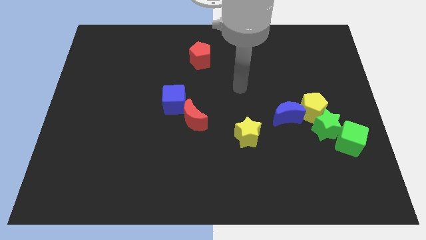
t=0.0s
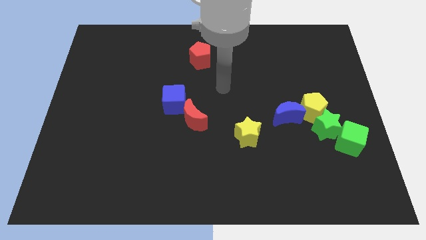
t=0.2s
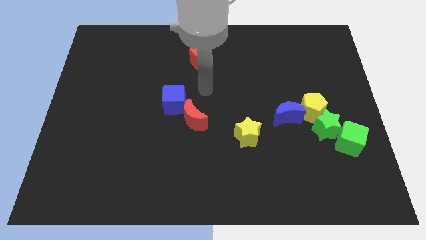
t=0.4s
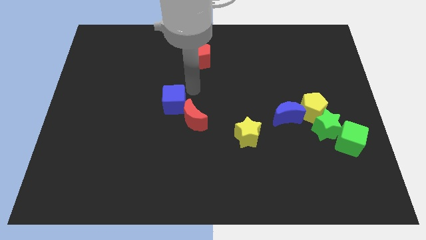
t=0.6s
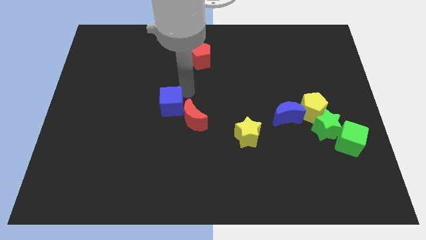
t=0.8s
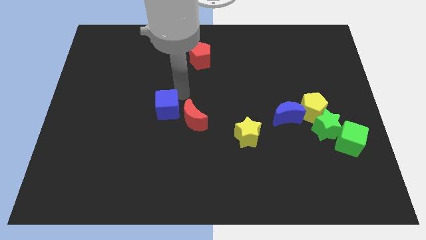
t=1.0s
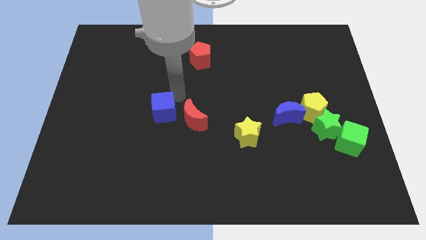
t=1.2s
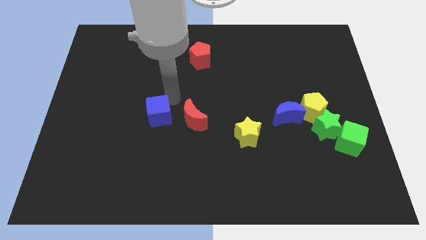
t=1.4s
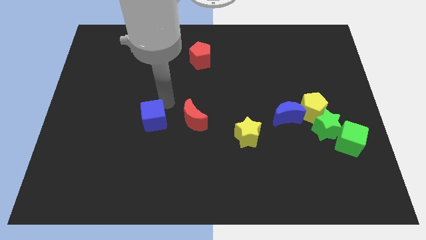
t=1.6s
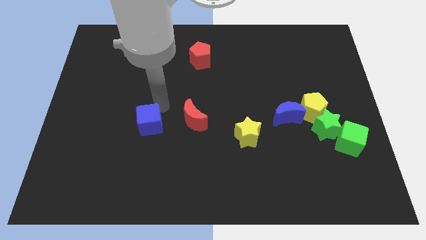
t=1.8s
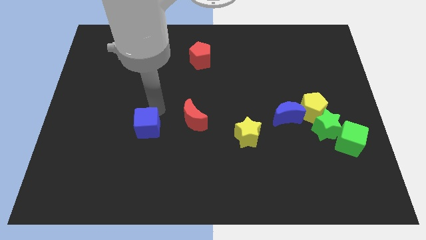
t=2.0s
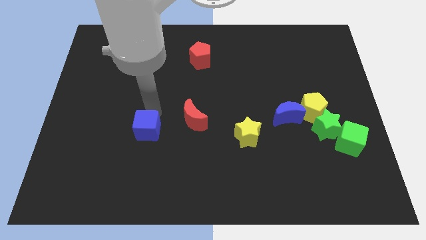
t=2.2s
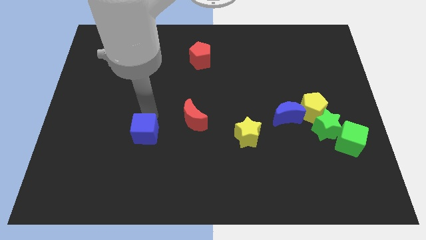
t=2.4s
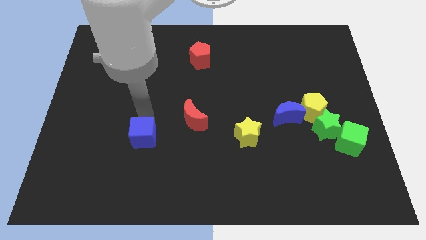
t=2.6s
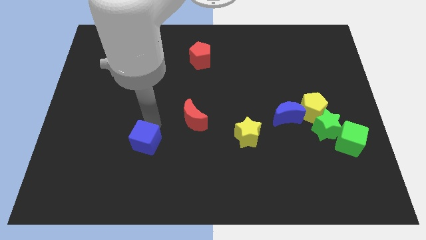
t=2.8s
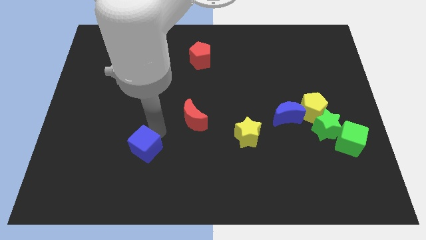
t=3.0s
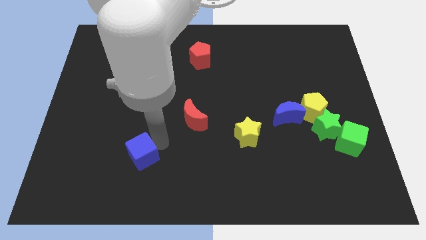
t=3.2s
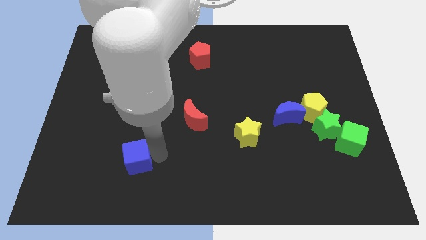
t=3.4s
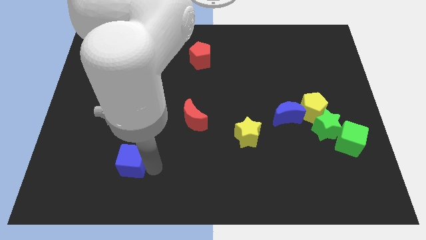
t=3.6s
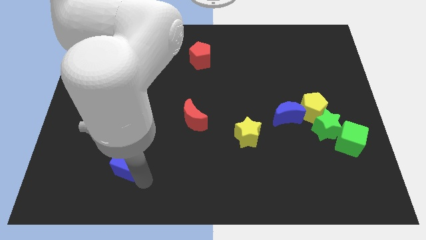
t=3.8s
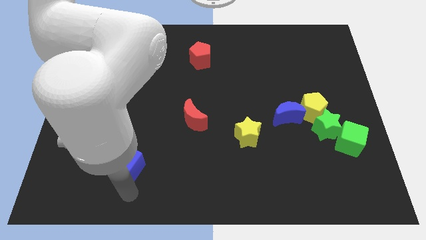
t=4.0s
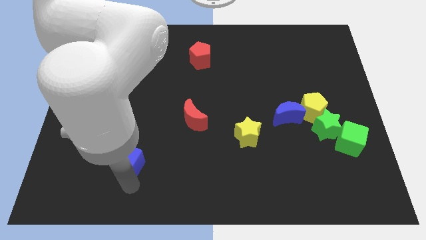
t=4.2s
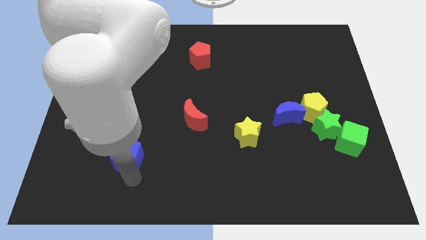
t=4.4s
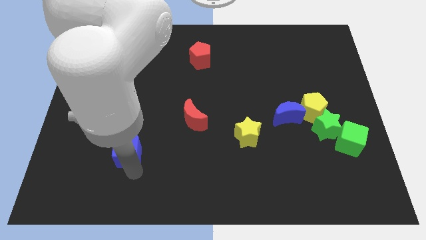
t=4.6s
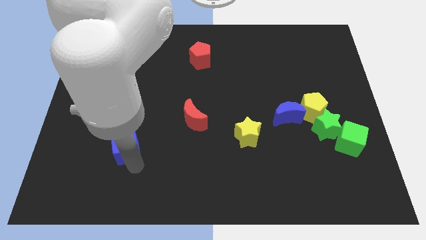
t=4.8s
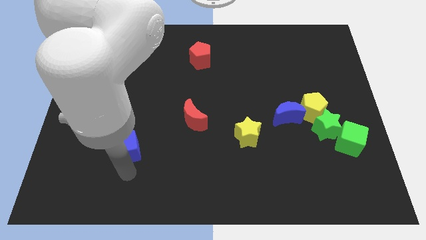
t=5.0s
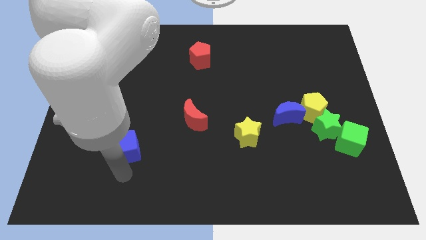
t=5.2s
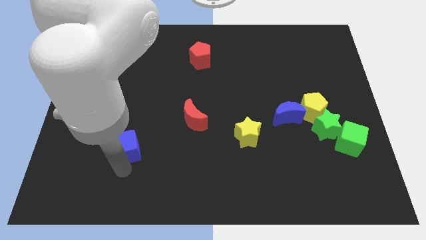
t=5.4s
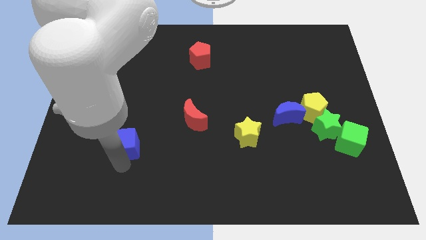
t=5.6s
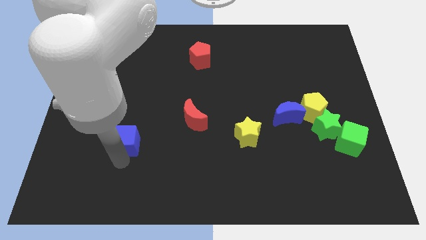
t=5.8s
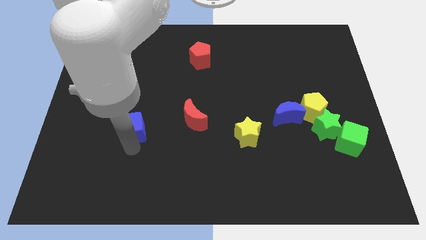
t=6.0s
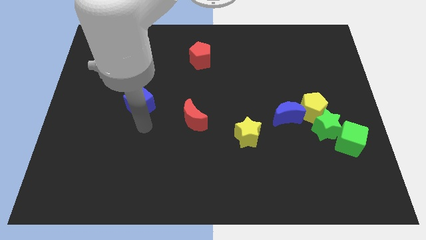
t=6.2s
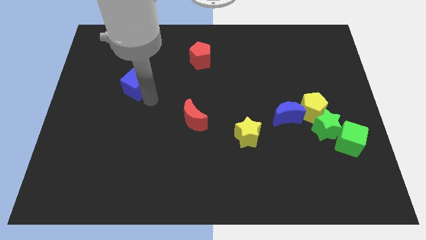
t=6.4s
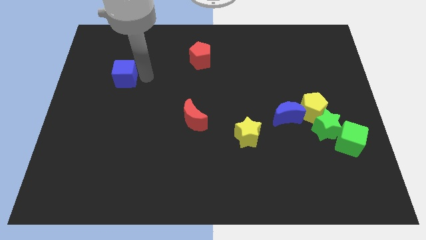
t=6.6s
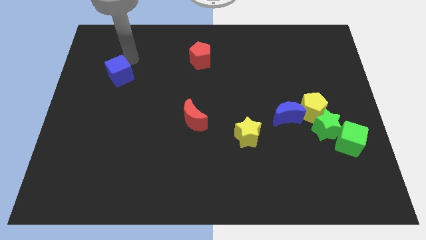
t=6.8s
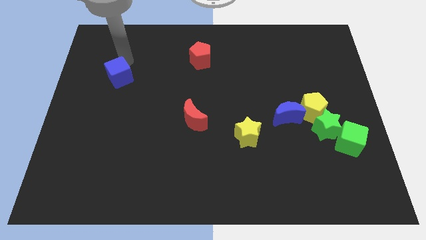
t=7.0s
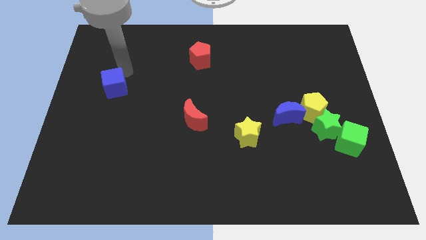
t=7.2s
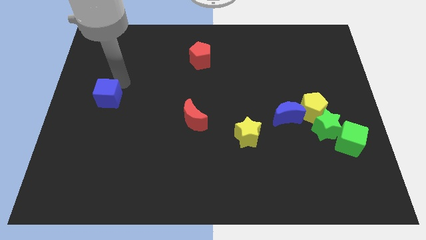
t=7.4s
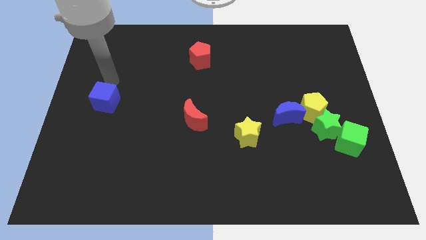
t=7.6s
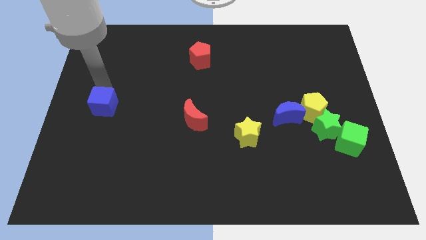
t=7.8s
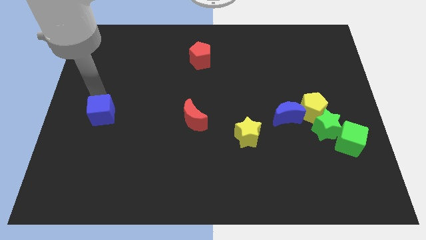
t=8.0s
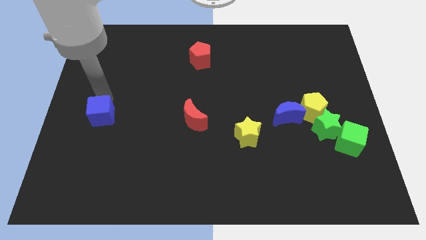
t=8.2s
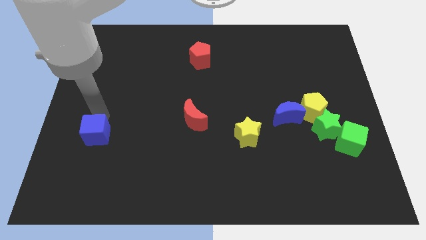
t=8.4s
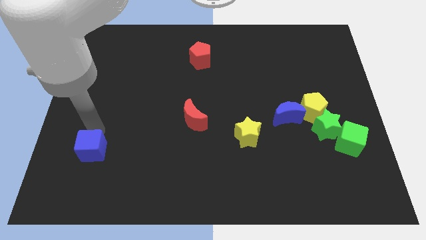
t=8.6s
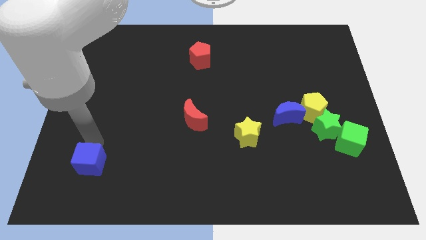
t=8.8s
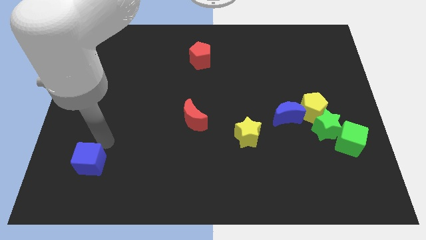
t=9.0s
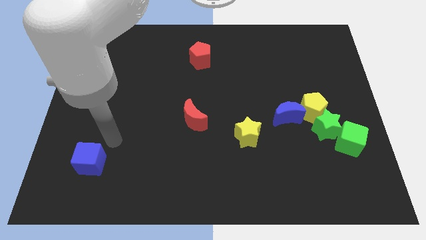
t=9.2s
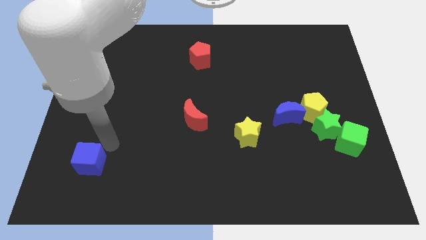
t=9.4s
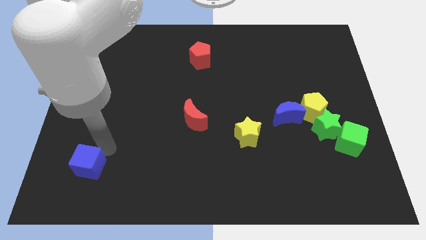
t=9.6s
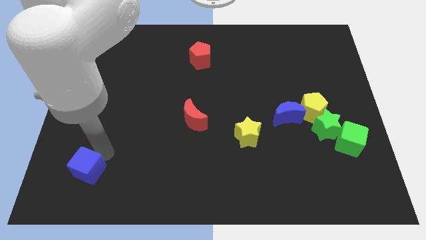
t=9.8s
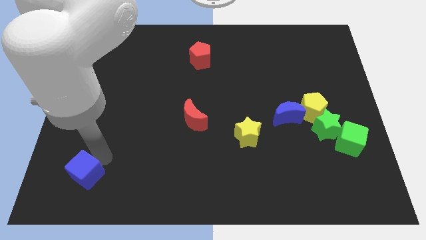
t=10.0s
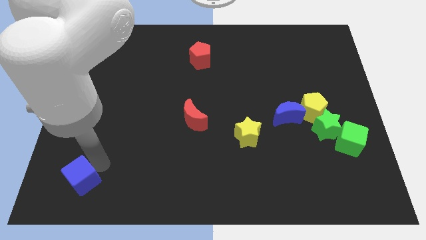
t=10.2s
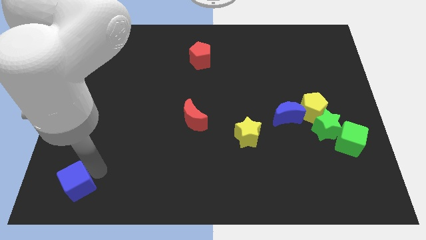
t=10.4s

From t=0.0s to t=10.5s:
move the blue cube to the bottom left corner

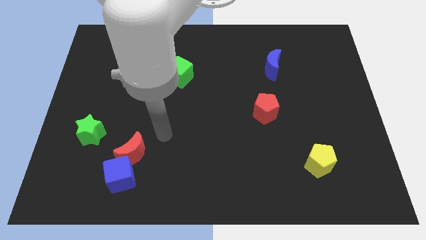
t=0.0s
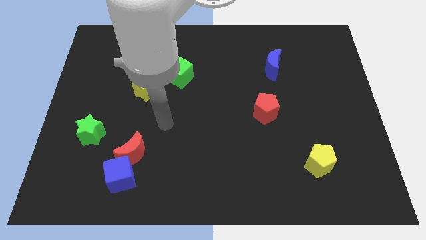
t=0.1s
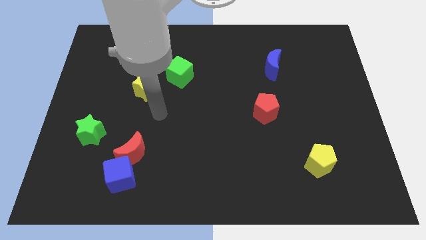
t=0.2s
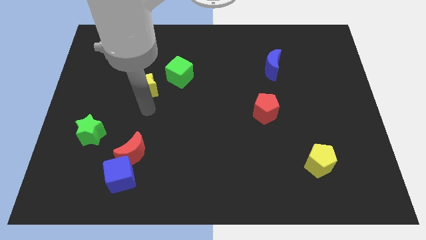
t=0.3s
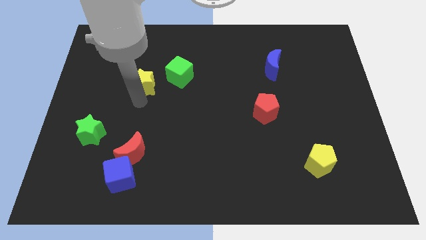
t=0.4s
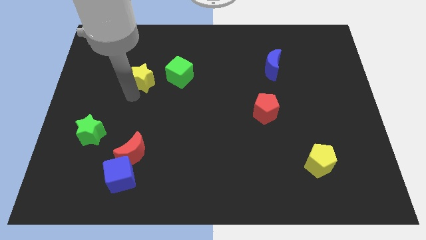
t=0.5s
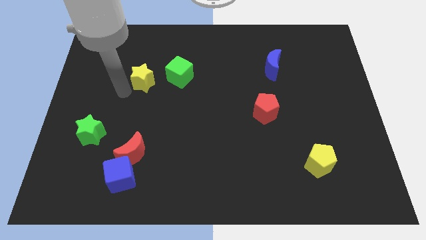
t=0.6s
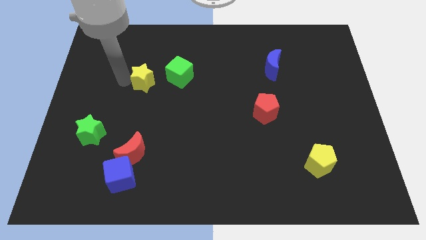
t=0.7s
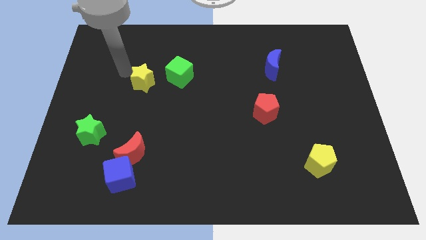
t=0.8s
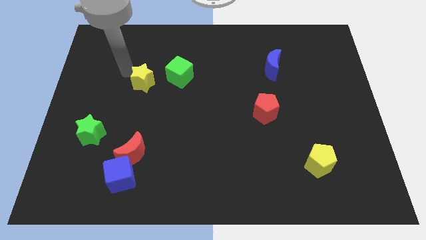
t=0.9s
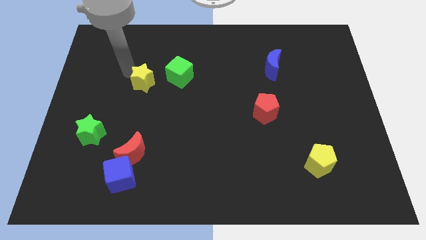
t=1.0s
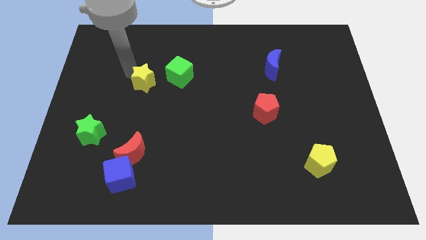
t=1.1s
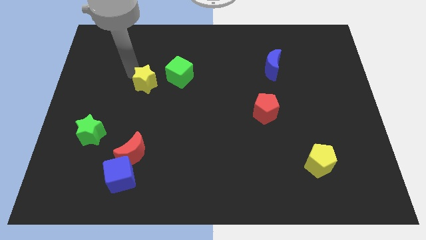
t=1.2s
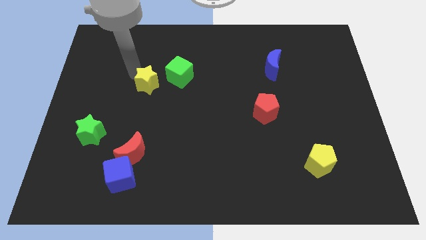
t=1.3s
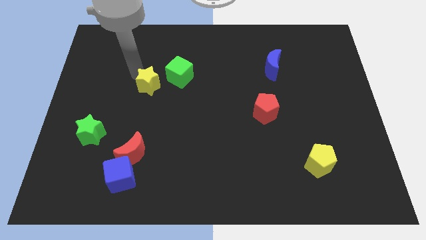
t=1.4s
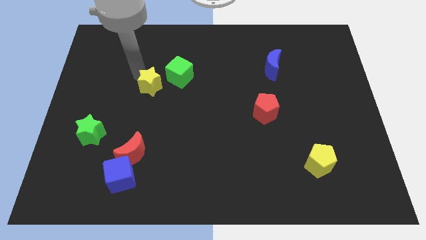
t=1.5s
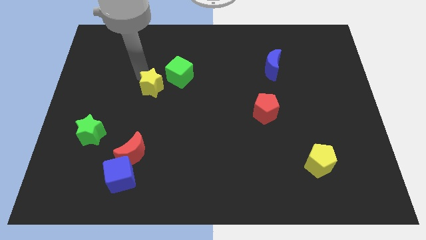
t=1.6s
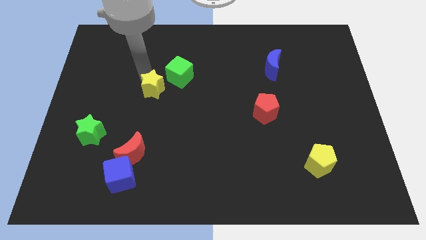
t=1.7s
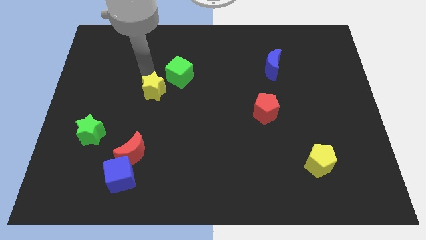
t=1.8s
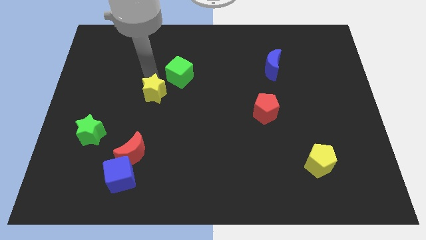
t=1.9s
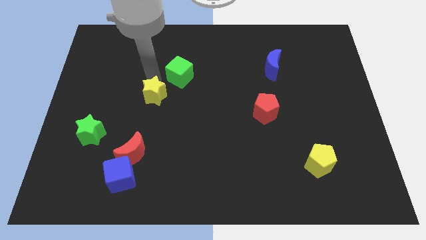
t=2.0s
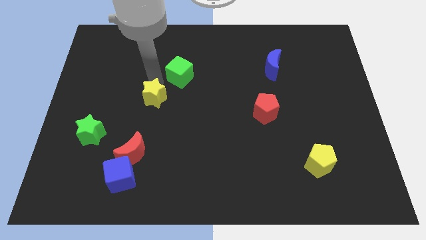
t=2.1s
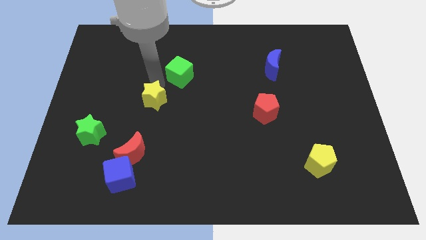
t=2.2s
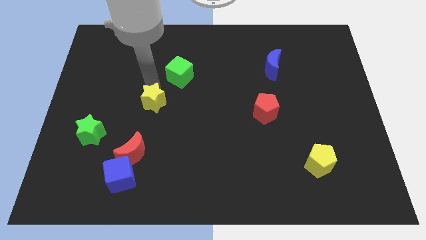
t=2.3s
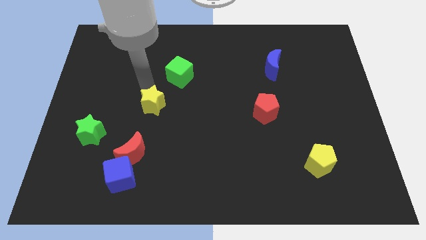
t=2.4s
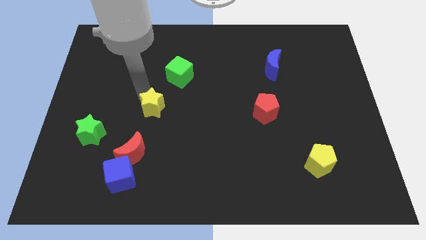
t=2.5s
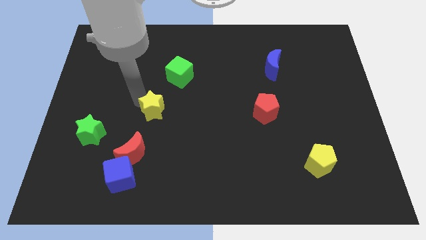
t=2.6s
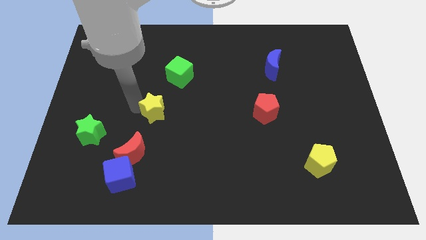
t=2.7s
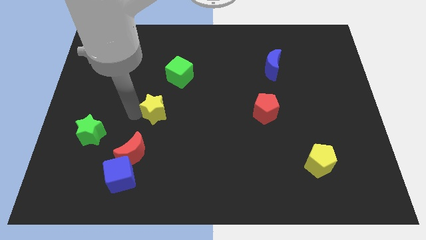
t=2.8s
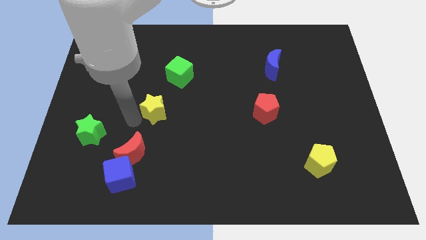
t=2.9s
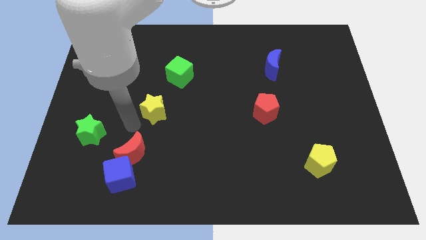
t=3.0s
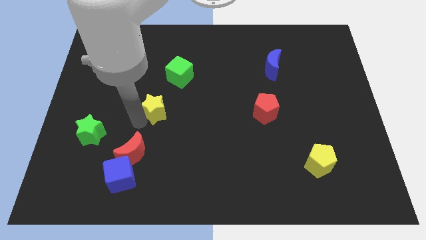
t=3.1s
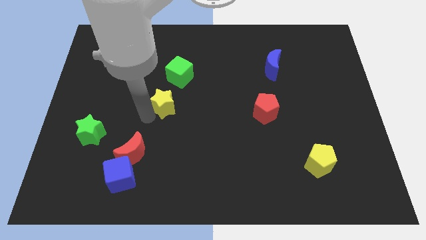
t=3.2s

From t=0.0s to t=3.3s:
move the yellow star to the center
